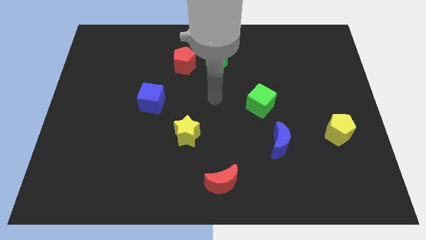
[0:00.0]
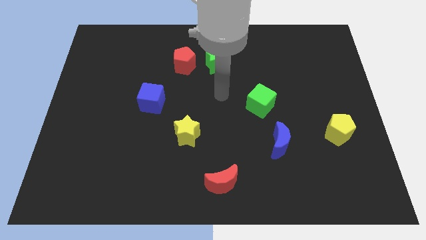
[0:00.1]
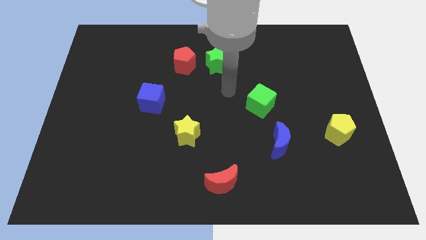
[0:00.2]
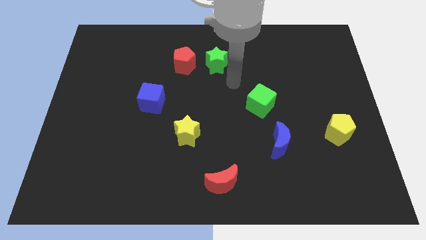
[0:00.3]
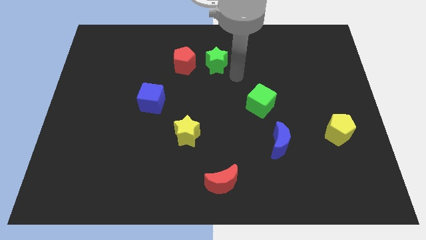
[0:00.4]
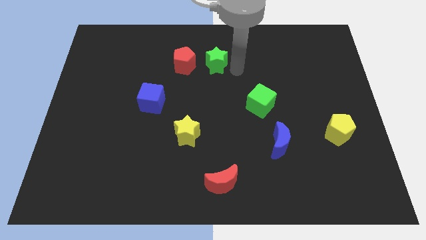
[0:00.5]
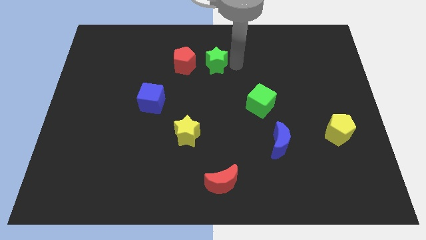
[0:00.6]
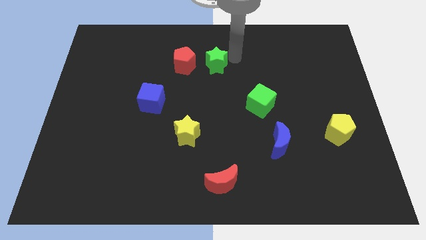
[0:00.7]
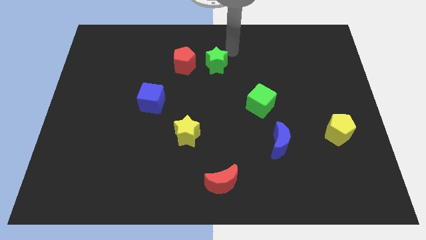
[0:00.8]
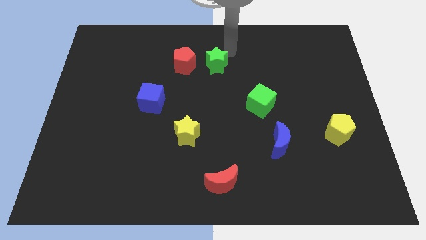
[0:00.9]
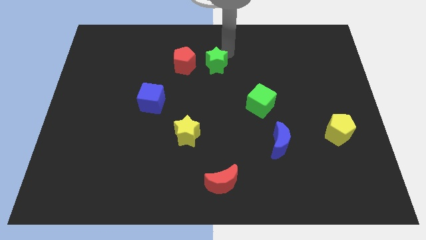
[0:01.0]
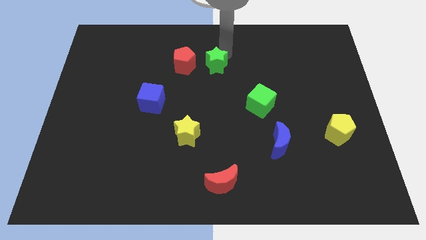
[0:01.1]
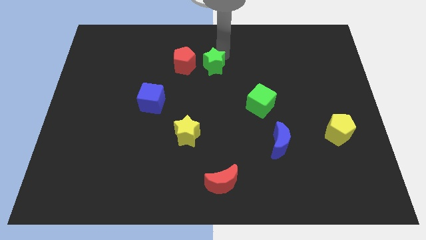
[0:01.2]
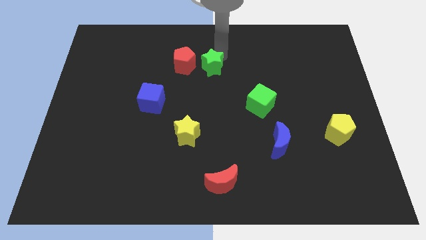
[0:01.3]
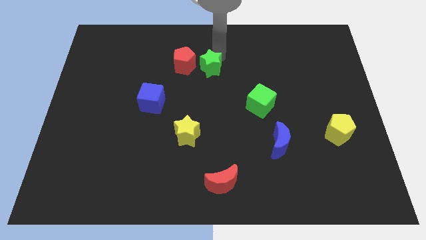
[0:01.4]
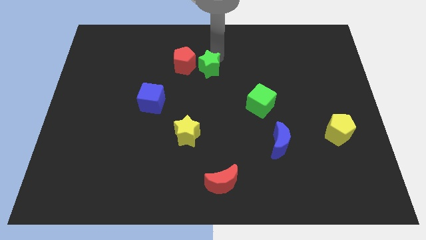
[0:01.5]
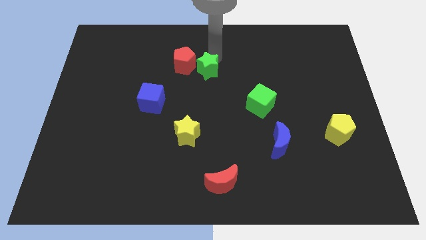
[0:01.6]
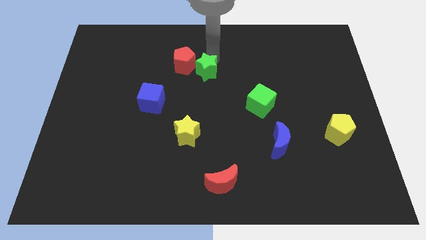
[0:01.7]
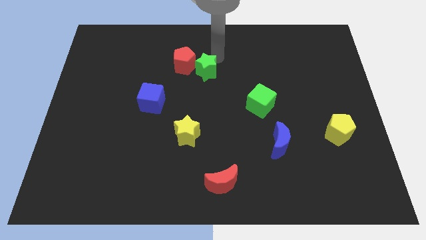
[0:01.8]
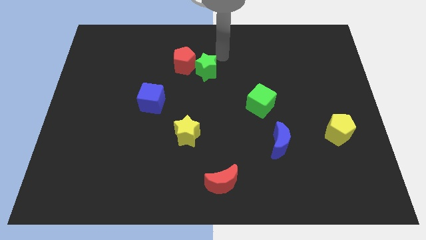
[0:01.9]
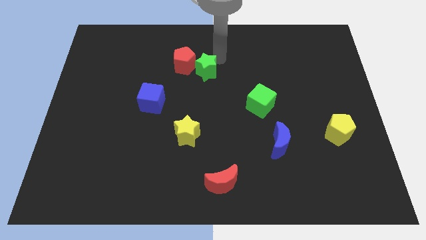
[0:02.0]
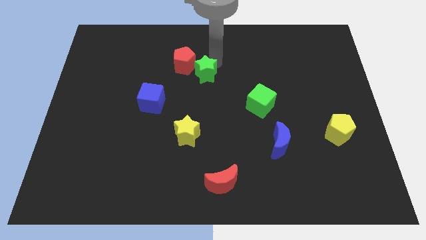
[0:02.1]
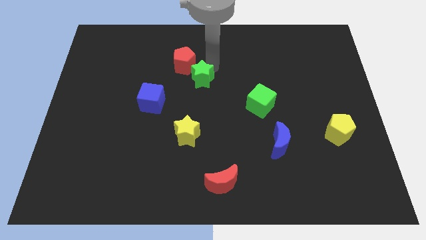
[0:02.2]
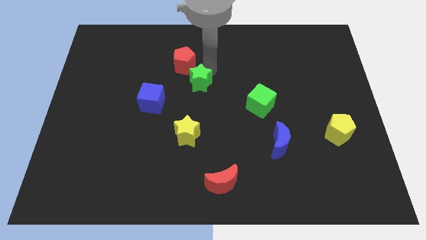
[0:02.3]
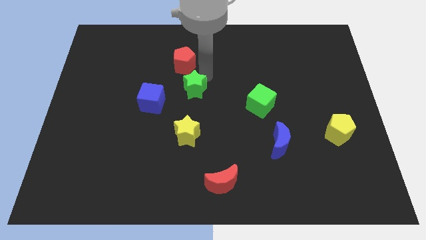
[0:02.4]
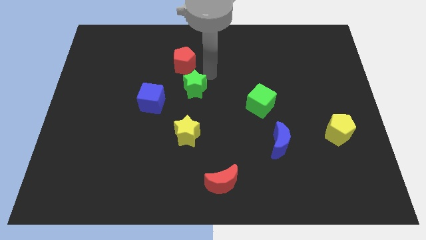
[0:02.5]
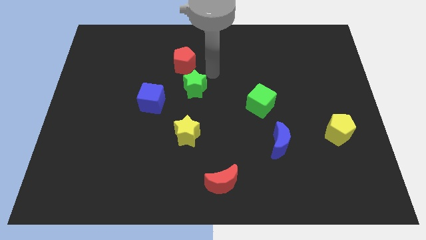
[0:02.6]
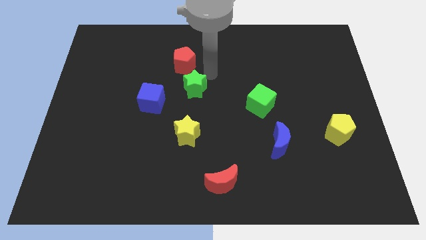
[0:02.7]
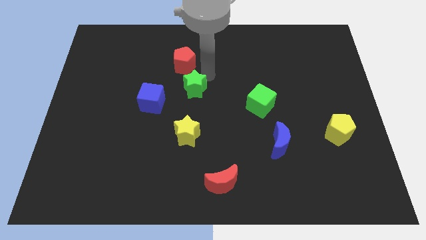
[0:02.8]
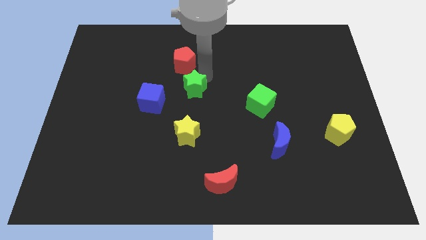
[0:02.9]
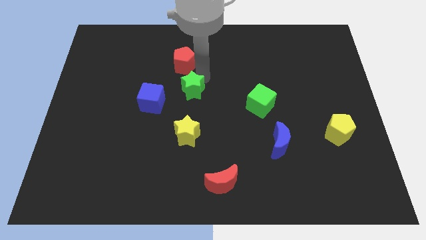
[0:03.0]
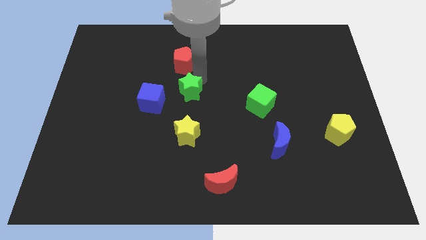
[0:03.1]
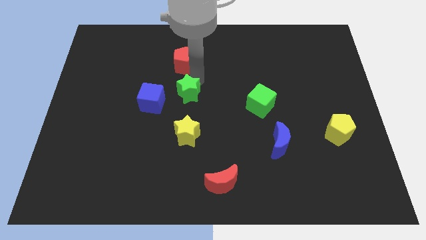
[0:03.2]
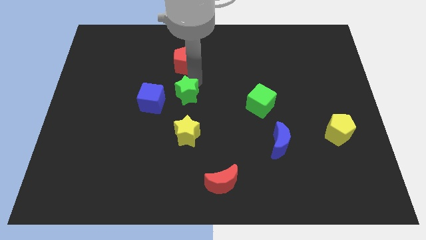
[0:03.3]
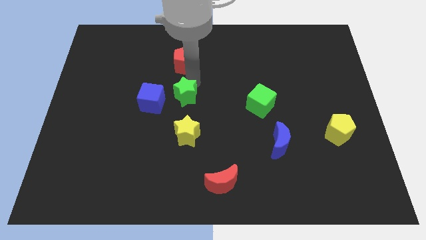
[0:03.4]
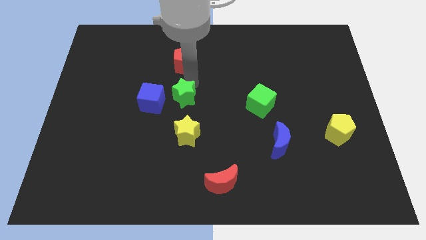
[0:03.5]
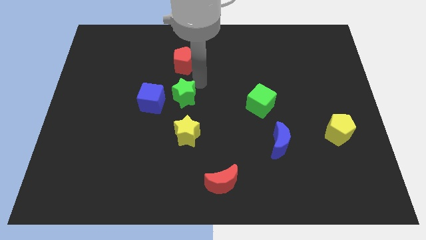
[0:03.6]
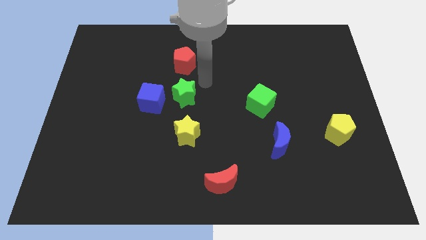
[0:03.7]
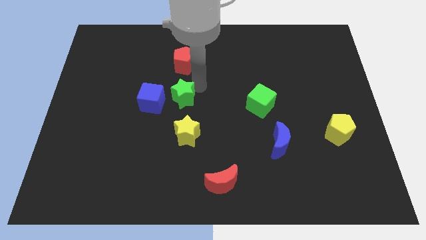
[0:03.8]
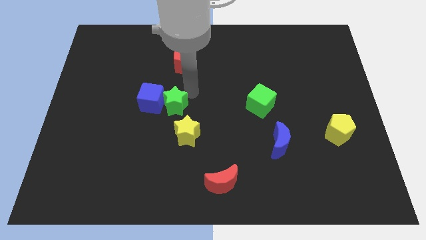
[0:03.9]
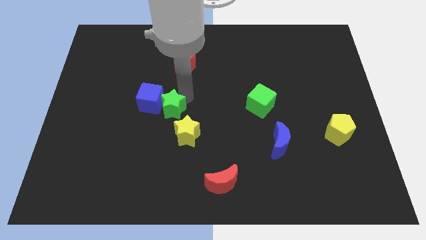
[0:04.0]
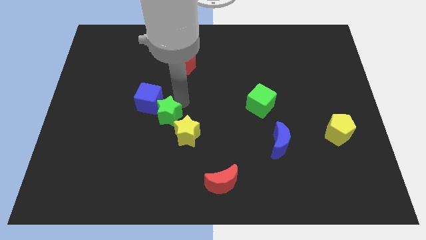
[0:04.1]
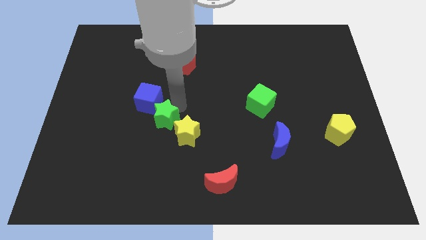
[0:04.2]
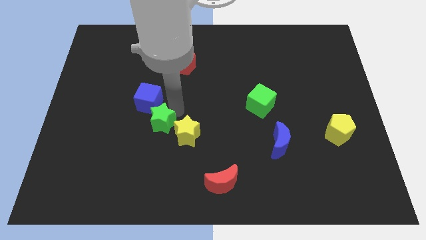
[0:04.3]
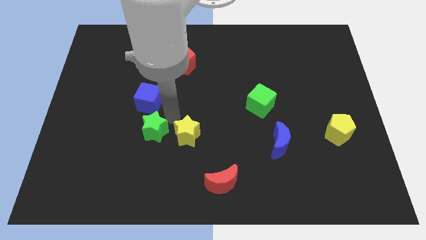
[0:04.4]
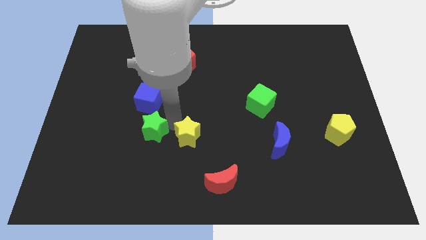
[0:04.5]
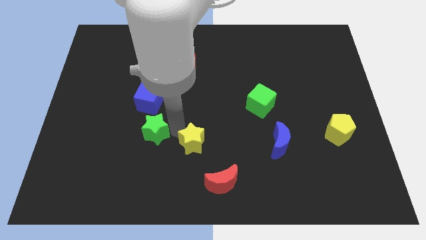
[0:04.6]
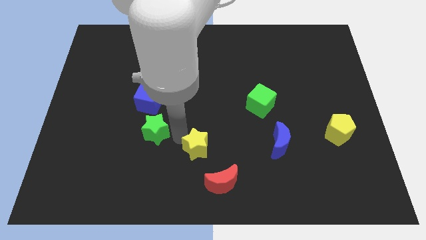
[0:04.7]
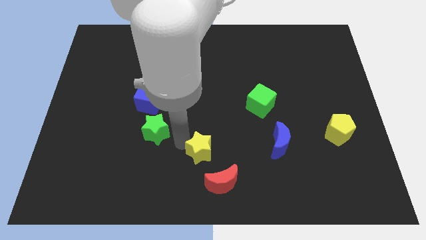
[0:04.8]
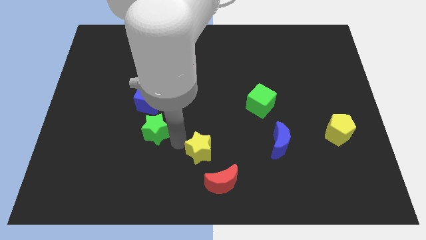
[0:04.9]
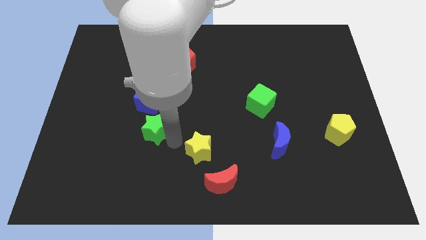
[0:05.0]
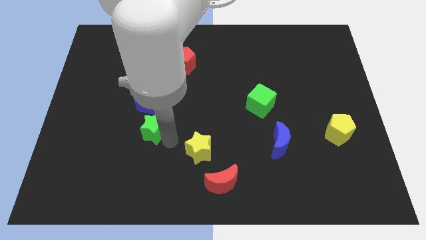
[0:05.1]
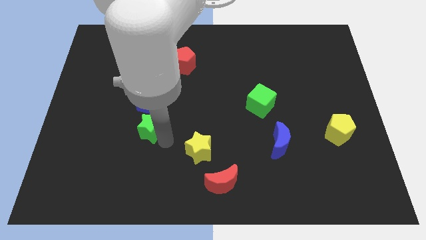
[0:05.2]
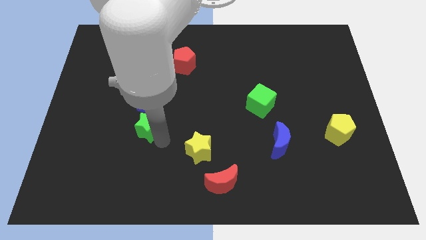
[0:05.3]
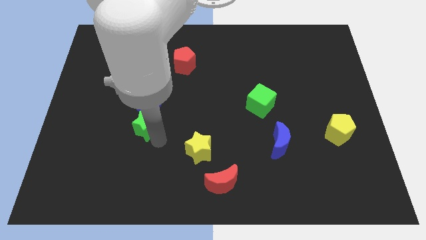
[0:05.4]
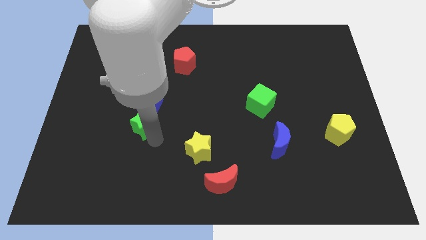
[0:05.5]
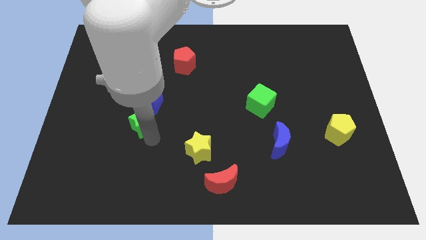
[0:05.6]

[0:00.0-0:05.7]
move the green star to the bottom left of the blue cube

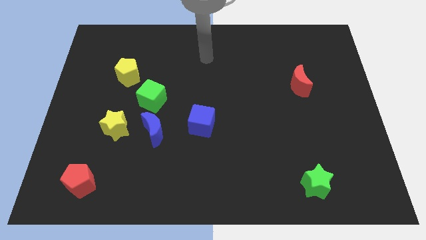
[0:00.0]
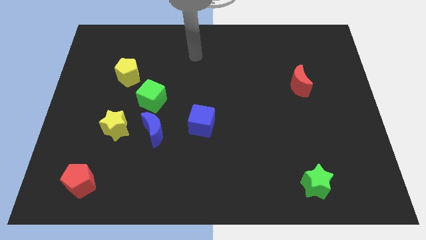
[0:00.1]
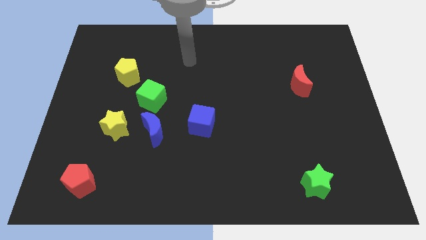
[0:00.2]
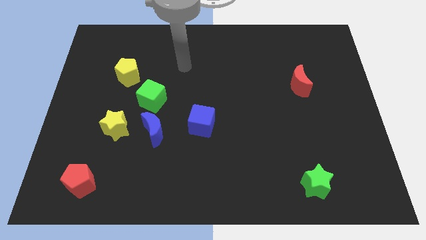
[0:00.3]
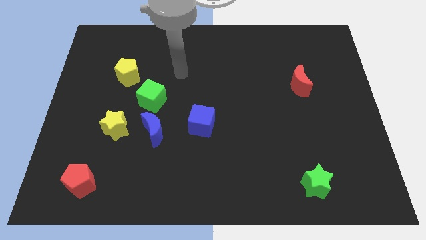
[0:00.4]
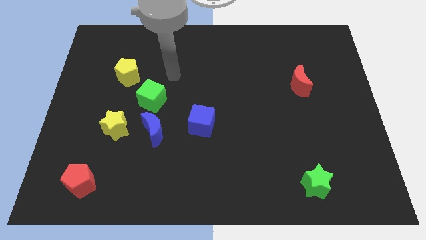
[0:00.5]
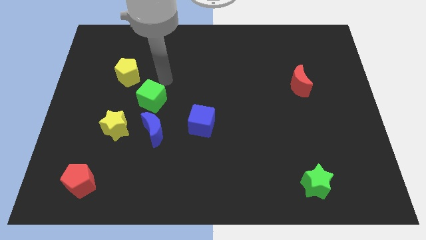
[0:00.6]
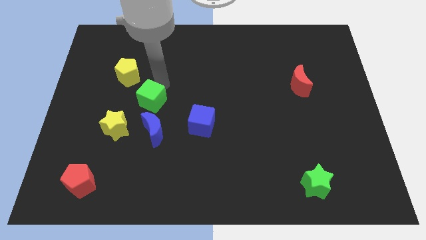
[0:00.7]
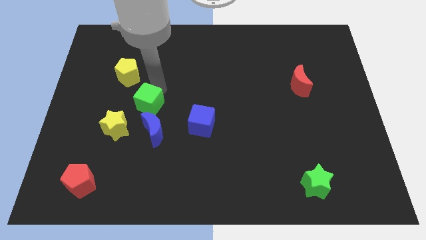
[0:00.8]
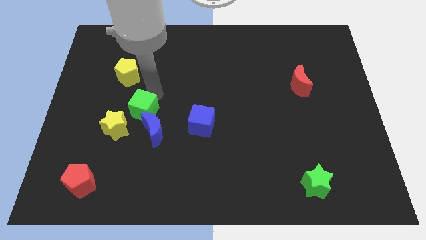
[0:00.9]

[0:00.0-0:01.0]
move the green cube left of the blue cube
